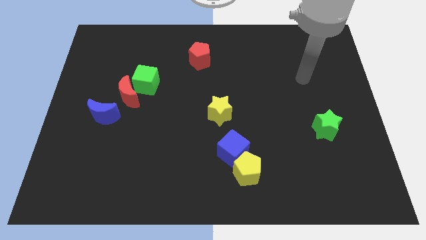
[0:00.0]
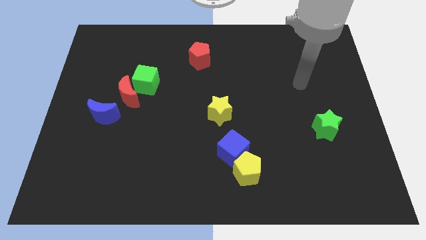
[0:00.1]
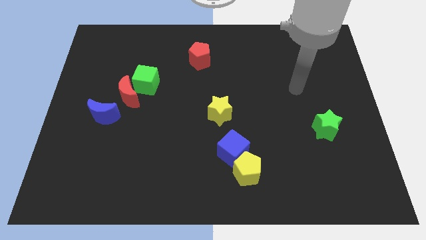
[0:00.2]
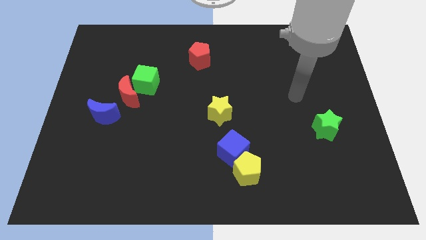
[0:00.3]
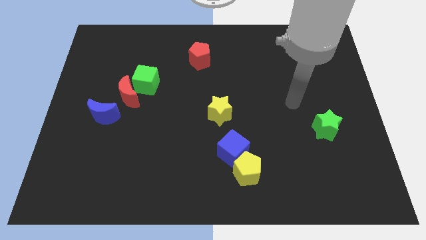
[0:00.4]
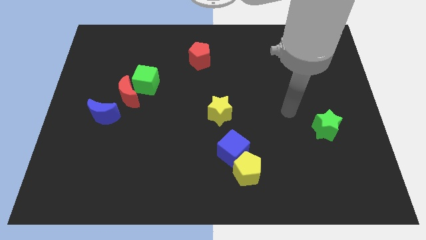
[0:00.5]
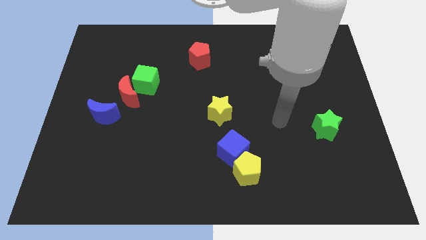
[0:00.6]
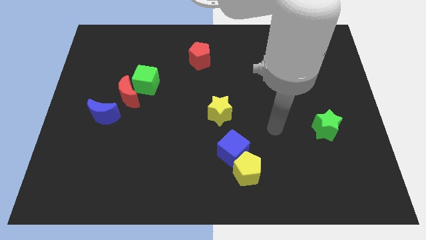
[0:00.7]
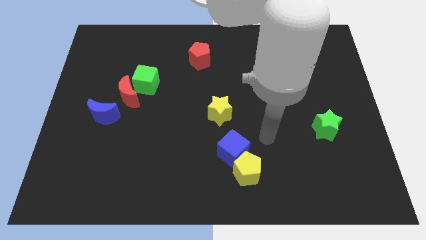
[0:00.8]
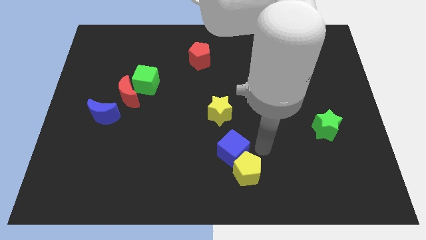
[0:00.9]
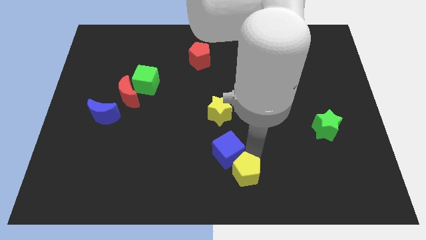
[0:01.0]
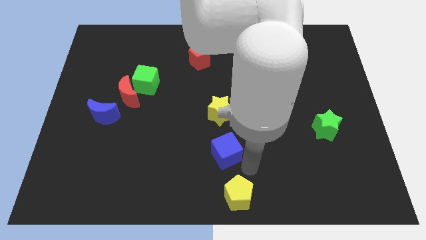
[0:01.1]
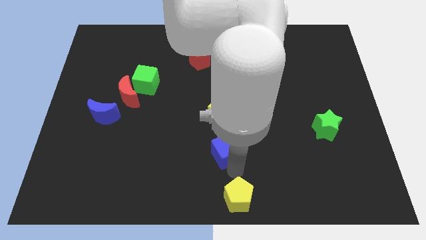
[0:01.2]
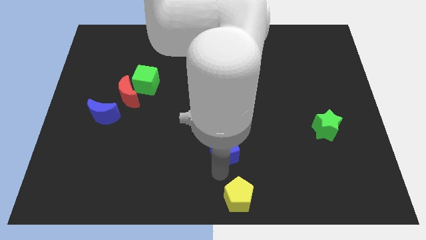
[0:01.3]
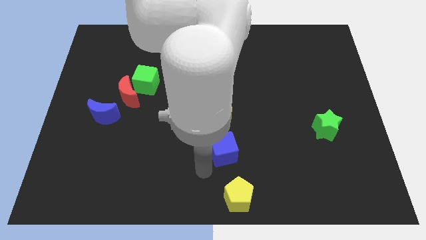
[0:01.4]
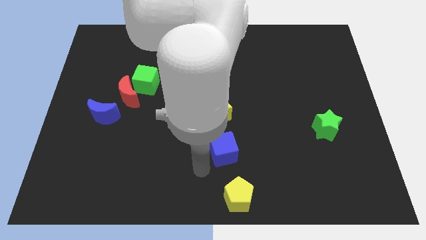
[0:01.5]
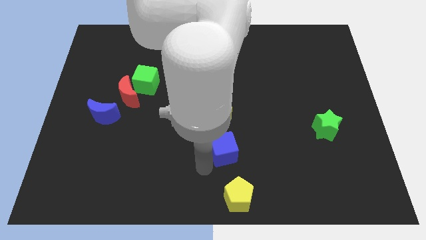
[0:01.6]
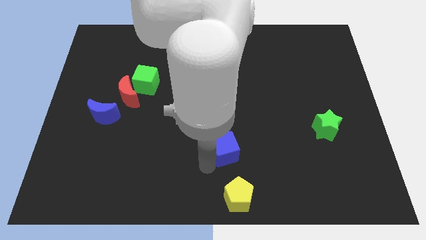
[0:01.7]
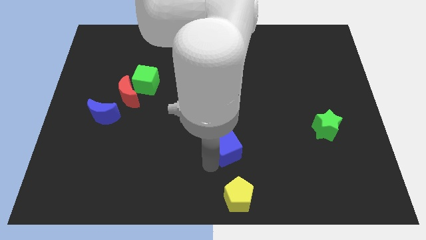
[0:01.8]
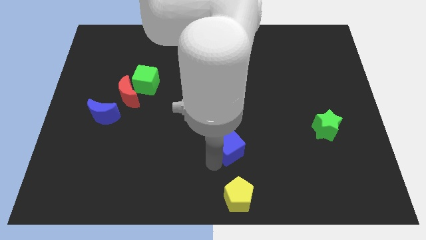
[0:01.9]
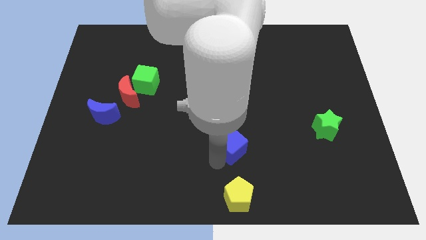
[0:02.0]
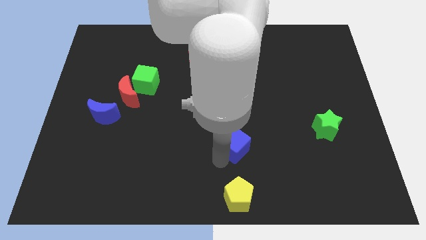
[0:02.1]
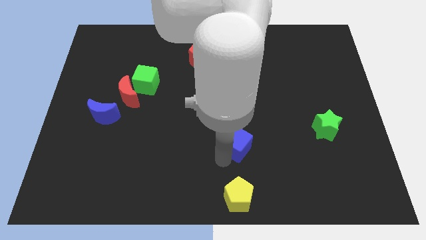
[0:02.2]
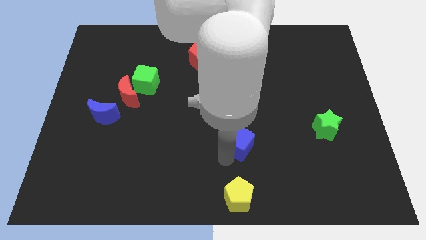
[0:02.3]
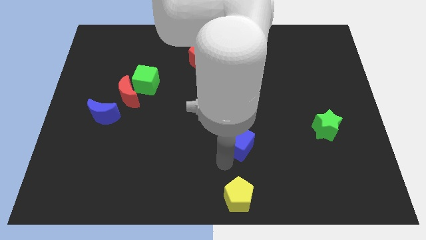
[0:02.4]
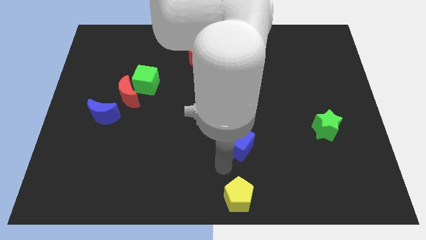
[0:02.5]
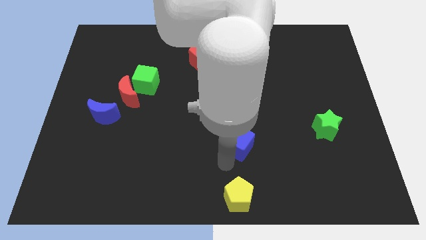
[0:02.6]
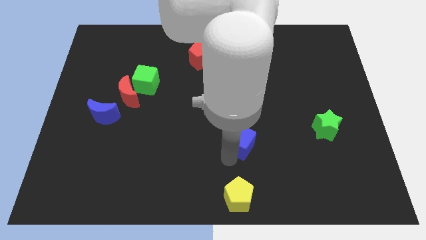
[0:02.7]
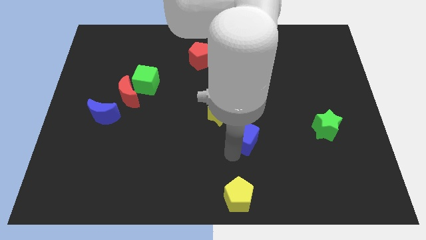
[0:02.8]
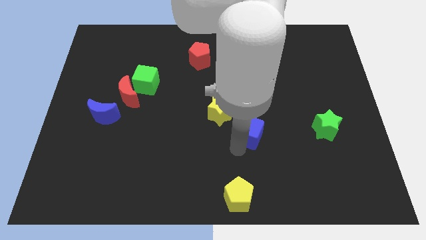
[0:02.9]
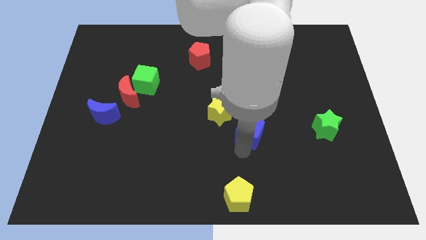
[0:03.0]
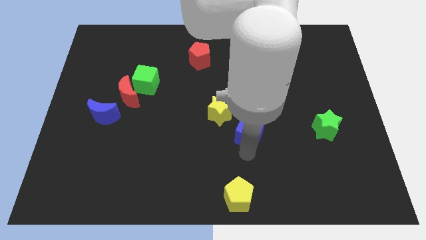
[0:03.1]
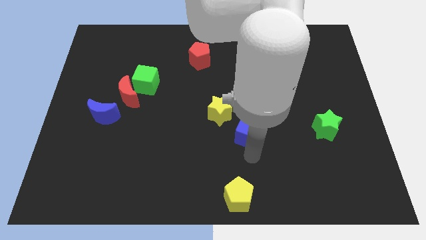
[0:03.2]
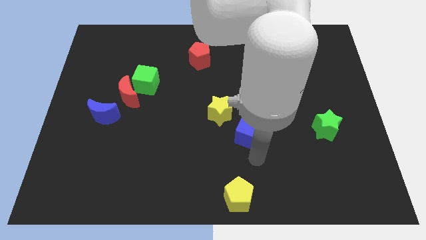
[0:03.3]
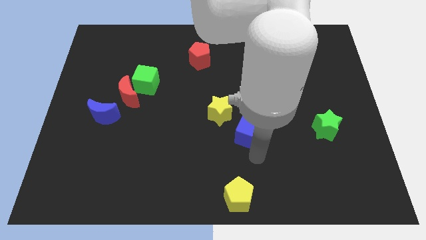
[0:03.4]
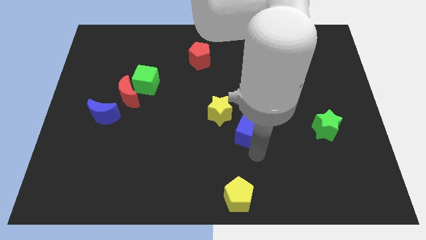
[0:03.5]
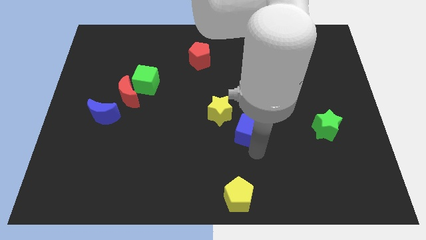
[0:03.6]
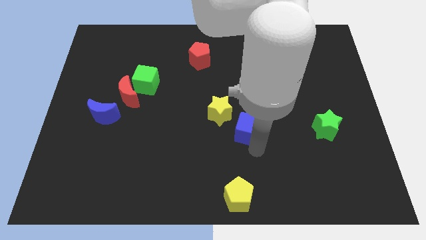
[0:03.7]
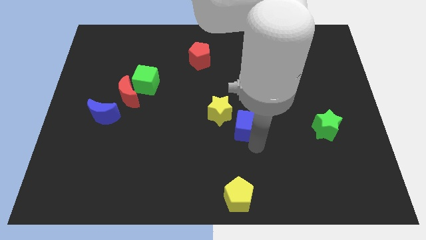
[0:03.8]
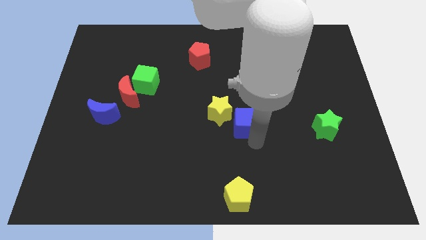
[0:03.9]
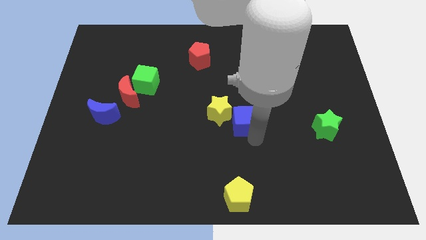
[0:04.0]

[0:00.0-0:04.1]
push the blue cube up a little

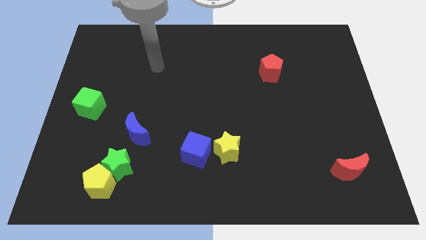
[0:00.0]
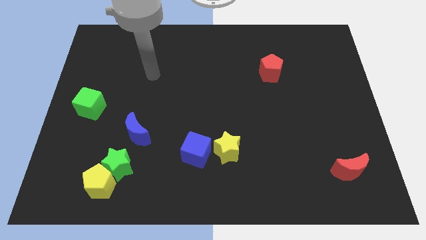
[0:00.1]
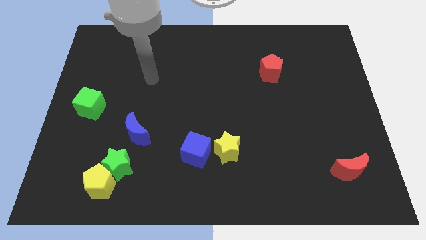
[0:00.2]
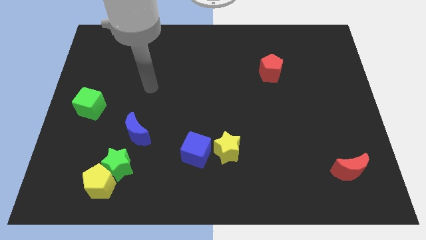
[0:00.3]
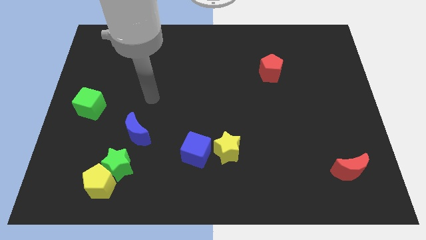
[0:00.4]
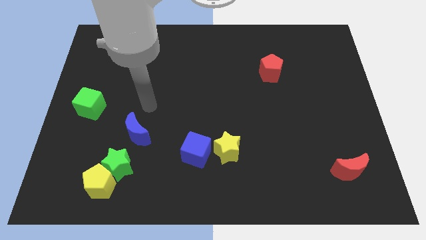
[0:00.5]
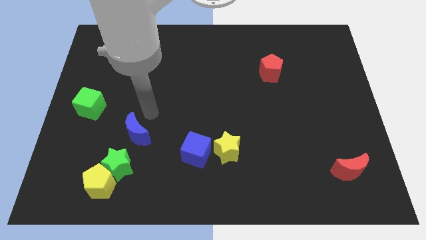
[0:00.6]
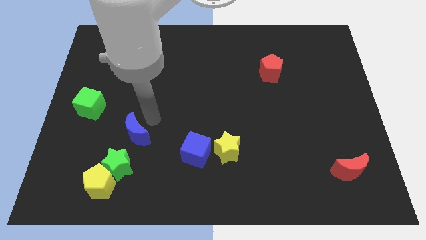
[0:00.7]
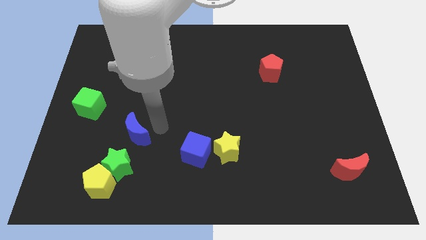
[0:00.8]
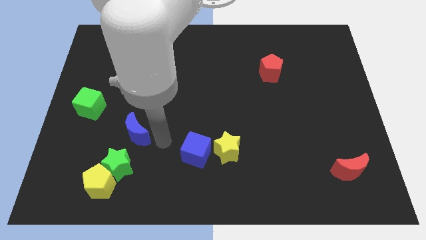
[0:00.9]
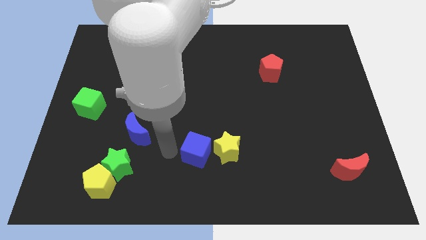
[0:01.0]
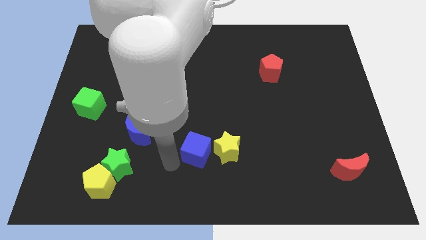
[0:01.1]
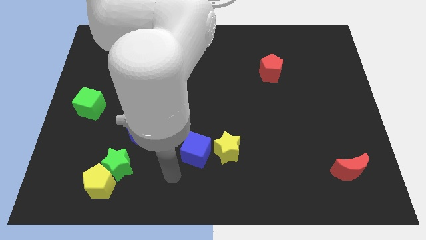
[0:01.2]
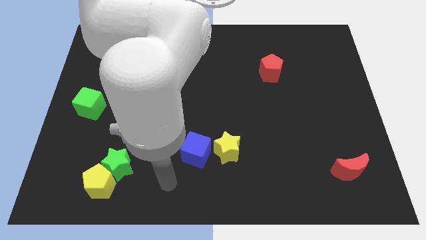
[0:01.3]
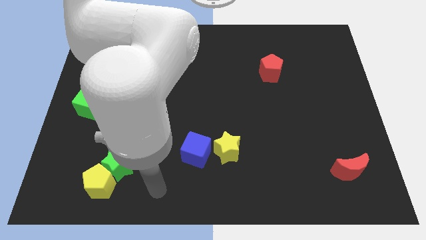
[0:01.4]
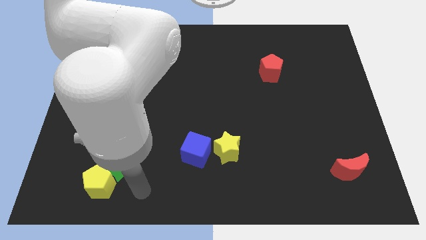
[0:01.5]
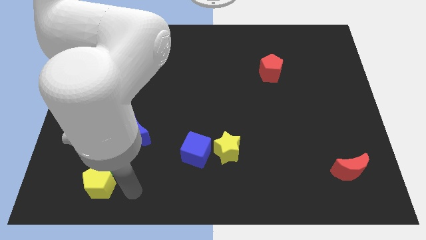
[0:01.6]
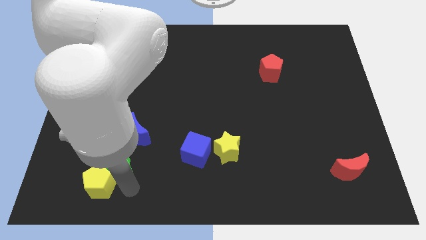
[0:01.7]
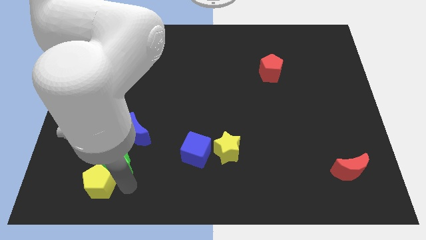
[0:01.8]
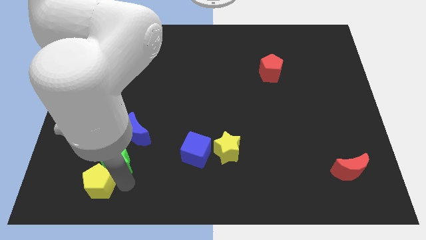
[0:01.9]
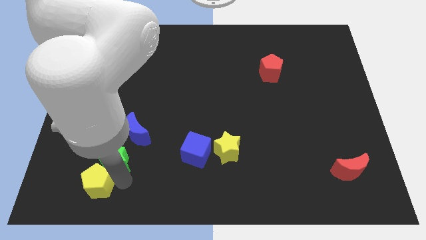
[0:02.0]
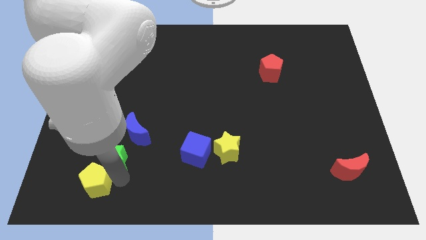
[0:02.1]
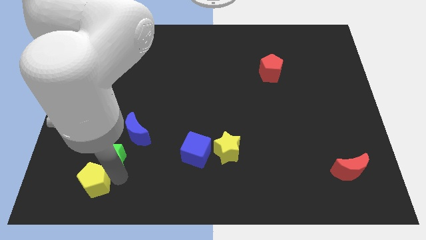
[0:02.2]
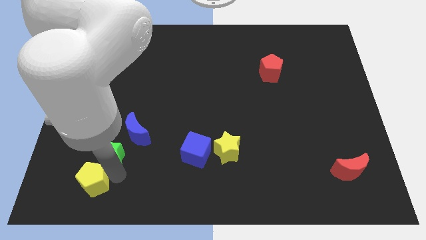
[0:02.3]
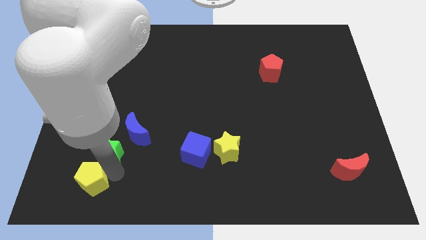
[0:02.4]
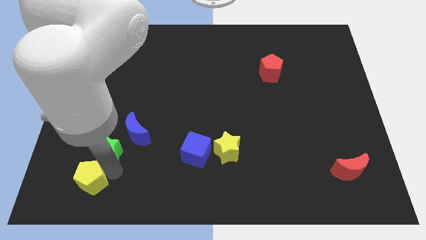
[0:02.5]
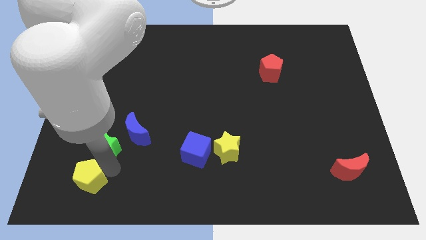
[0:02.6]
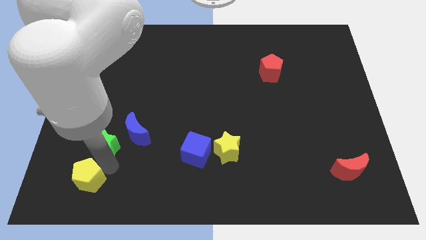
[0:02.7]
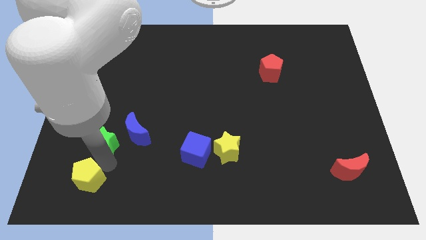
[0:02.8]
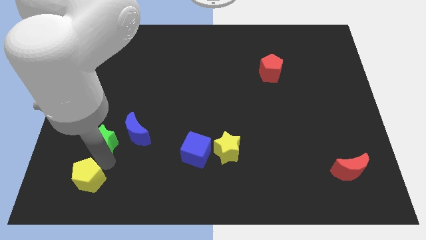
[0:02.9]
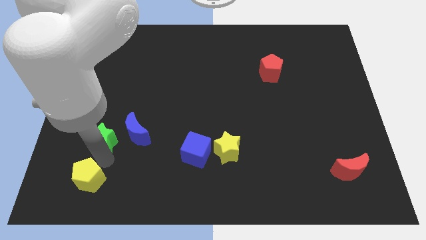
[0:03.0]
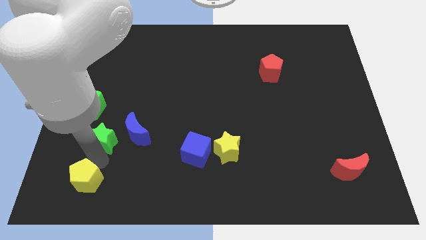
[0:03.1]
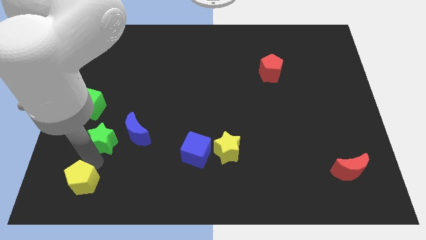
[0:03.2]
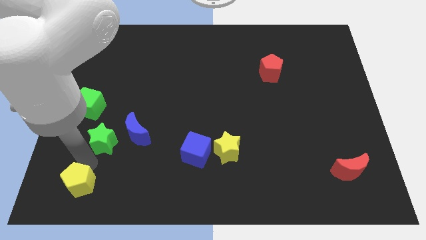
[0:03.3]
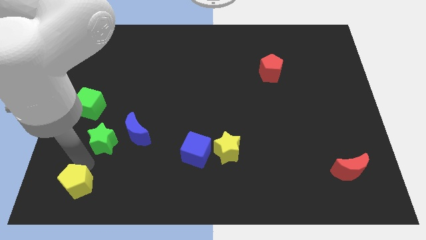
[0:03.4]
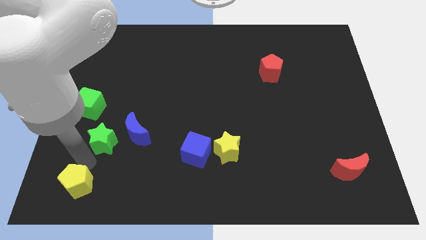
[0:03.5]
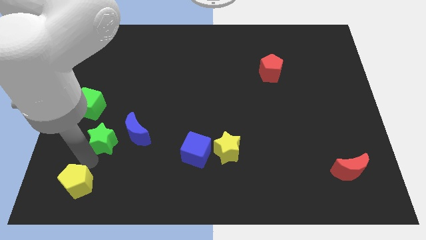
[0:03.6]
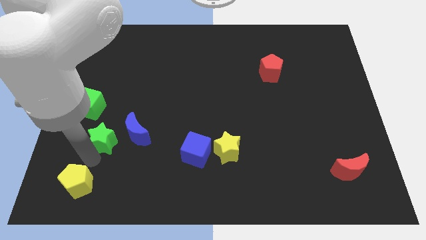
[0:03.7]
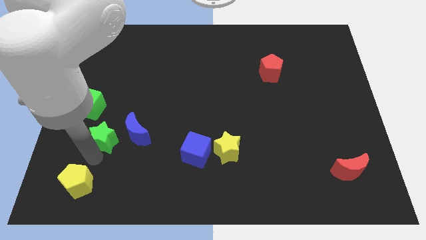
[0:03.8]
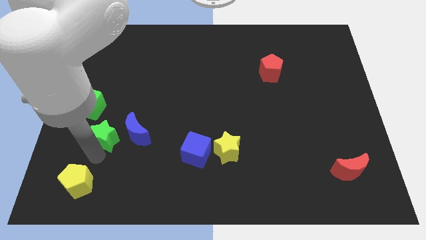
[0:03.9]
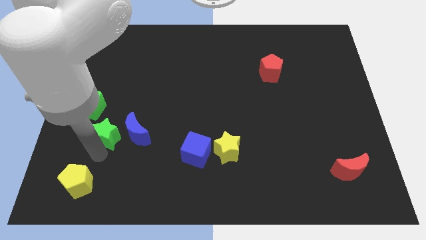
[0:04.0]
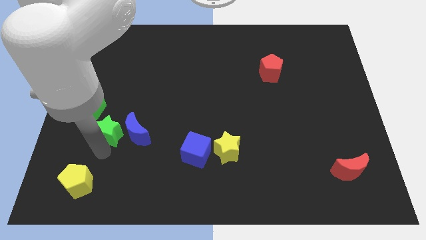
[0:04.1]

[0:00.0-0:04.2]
slide the green star a little up

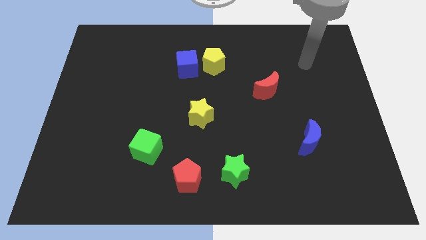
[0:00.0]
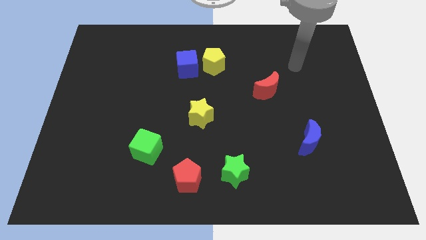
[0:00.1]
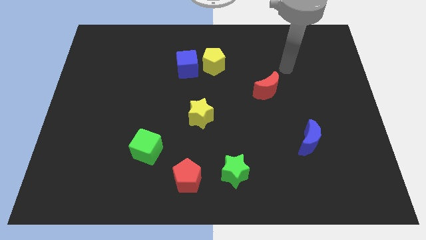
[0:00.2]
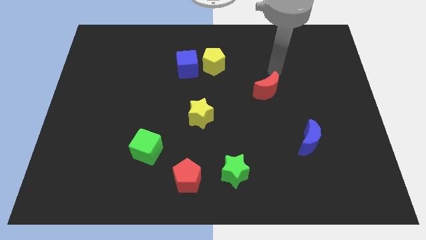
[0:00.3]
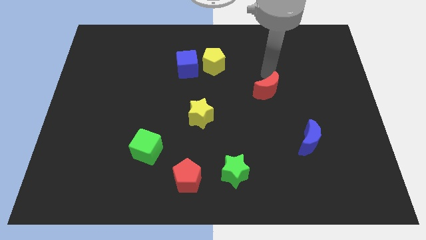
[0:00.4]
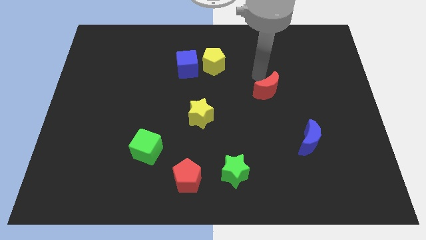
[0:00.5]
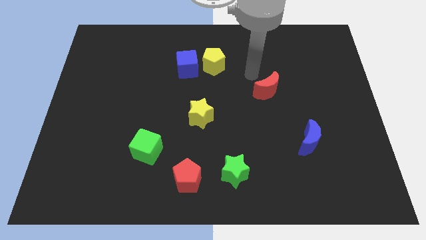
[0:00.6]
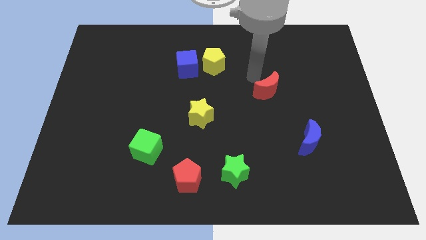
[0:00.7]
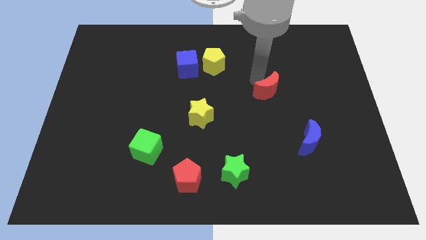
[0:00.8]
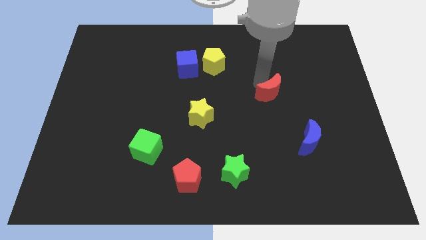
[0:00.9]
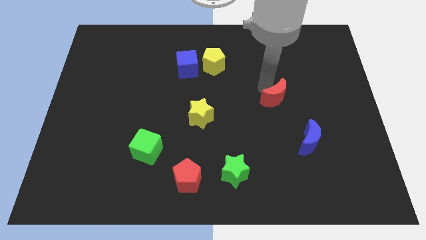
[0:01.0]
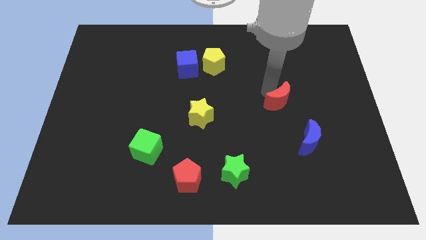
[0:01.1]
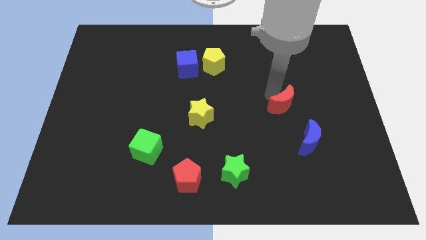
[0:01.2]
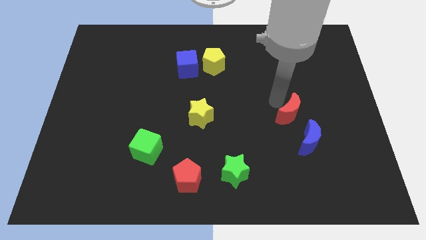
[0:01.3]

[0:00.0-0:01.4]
slide the red moon downwards and right a bit
